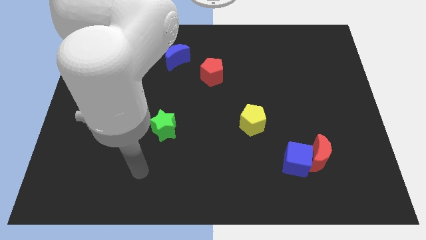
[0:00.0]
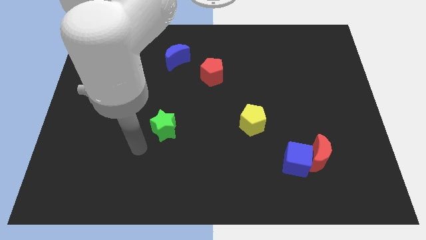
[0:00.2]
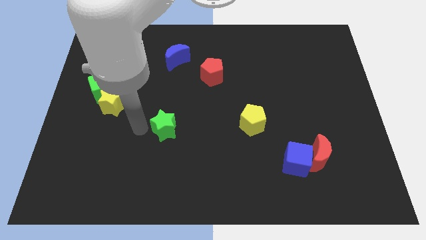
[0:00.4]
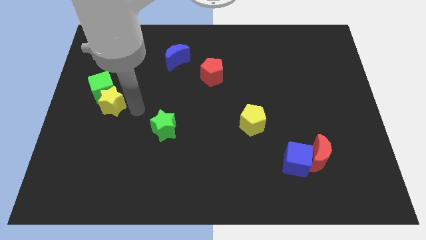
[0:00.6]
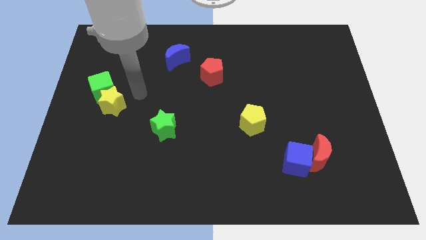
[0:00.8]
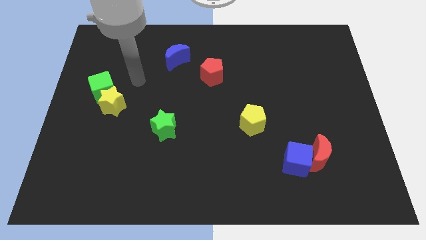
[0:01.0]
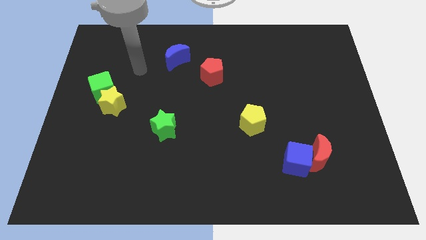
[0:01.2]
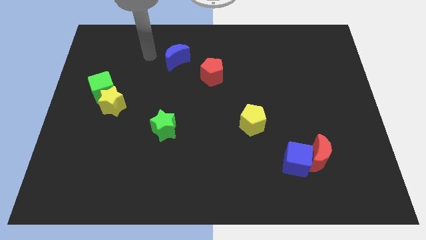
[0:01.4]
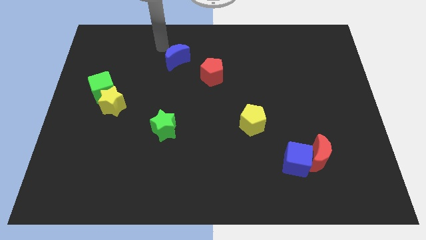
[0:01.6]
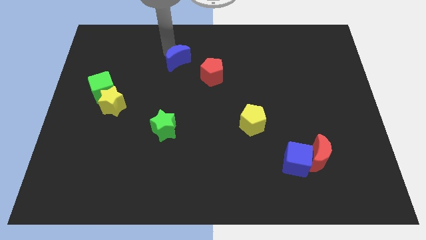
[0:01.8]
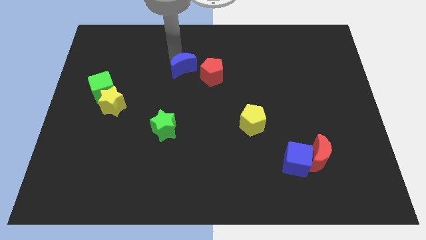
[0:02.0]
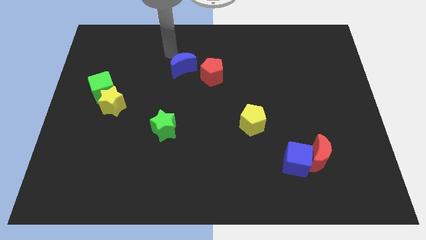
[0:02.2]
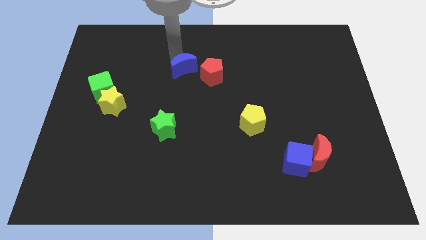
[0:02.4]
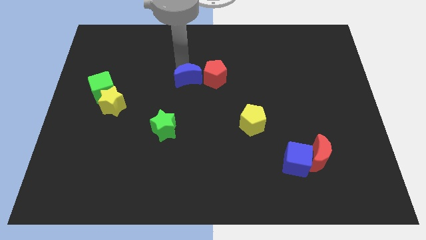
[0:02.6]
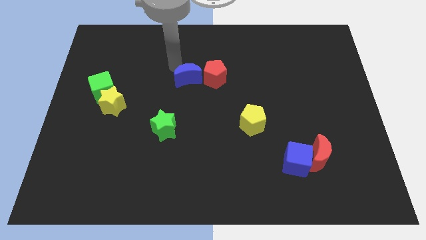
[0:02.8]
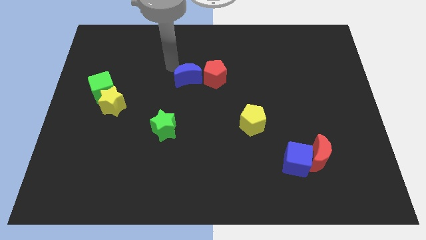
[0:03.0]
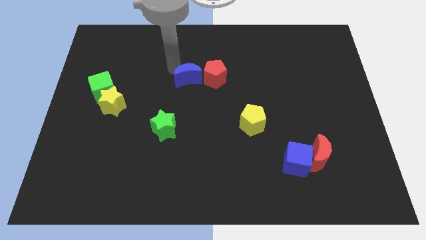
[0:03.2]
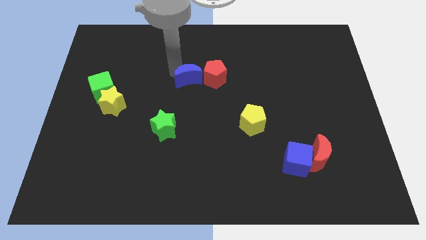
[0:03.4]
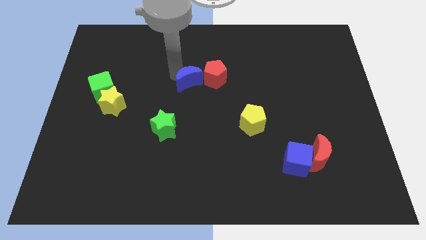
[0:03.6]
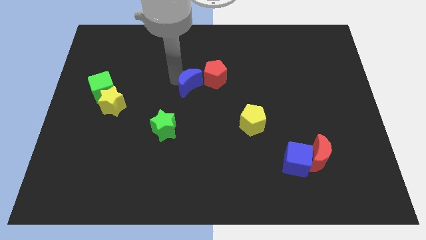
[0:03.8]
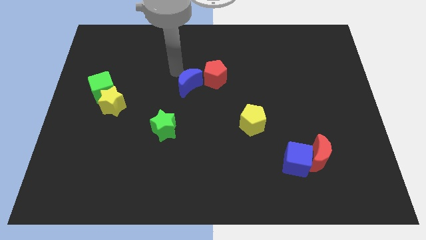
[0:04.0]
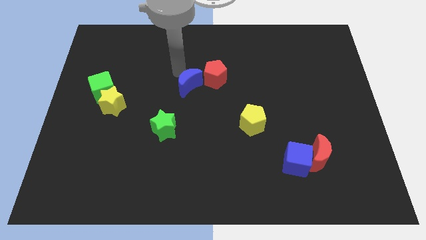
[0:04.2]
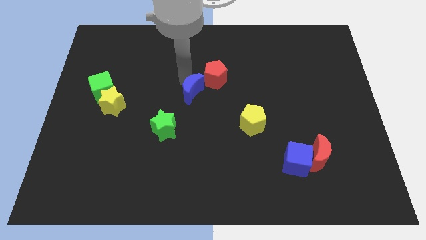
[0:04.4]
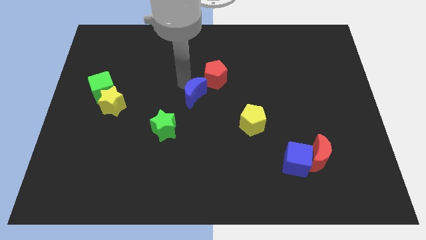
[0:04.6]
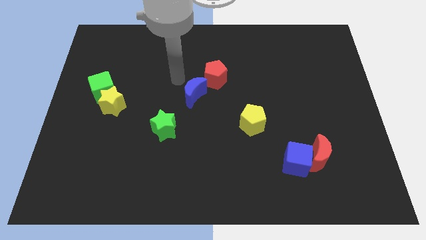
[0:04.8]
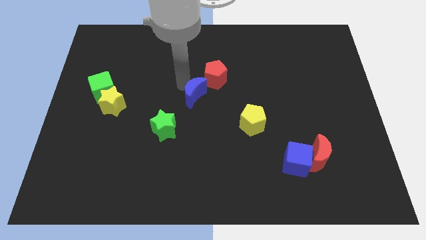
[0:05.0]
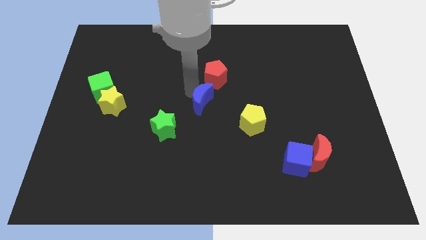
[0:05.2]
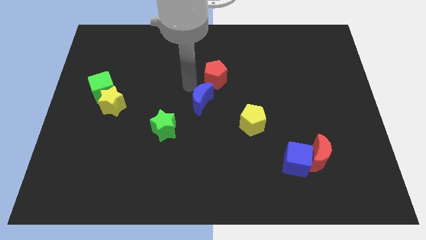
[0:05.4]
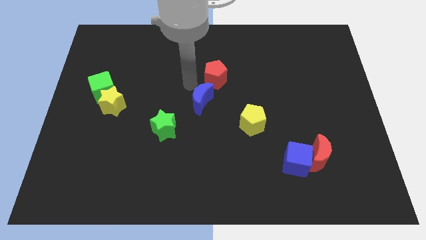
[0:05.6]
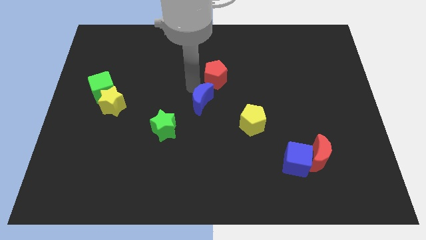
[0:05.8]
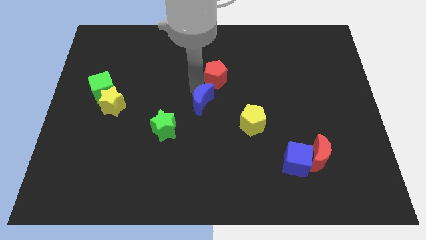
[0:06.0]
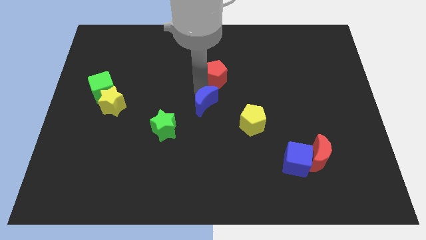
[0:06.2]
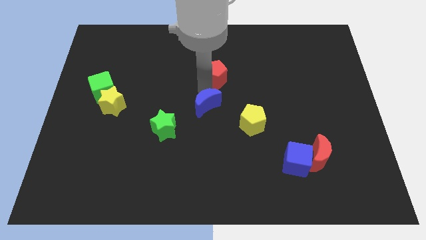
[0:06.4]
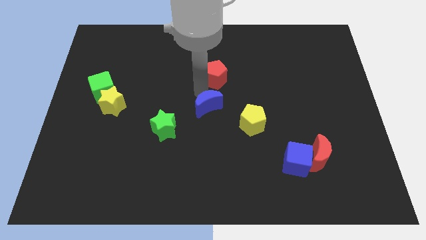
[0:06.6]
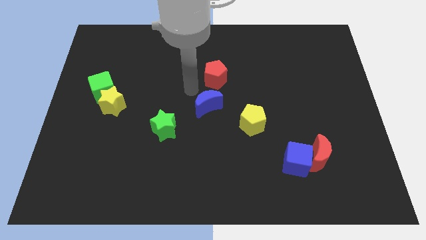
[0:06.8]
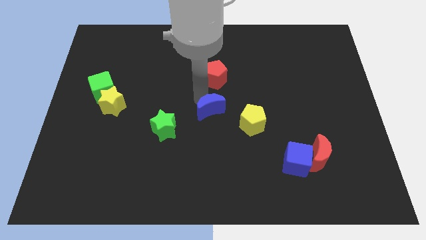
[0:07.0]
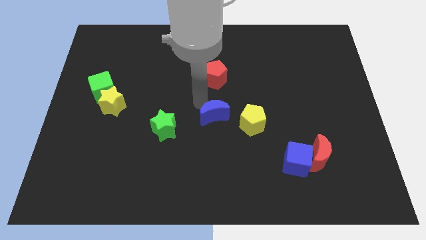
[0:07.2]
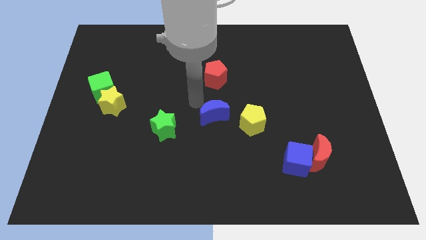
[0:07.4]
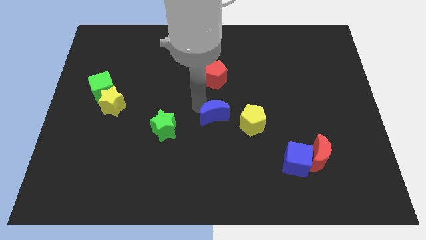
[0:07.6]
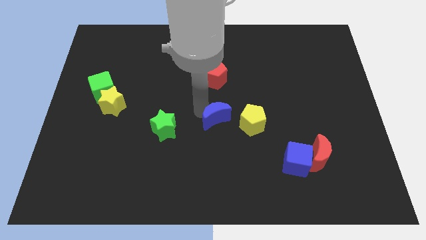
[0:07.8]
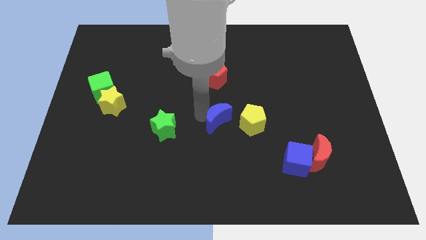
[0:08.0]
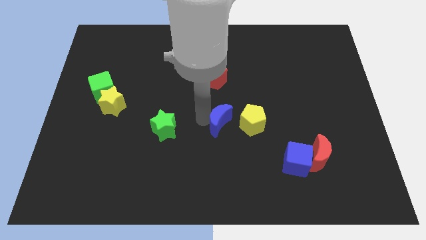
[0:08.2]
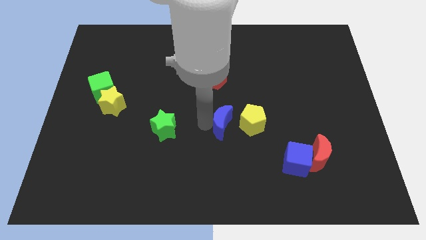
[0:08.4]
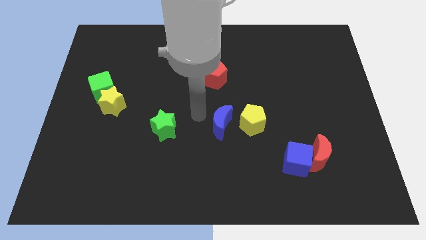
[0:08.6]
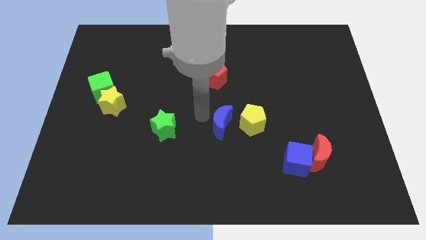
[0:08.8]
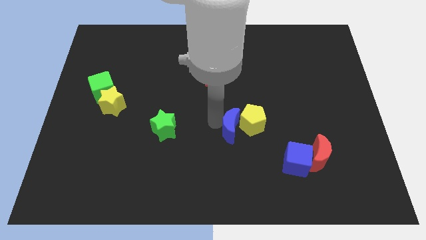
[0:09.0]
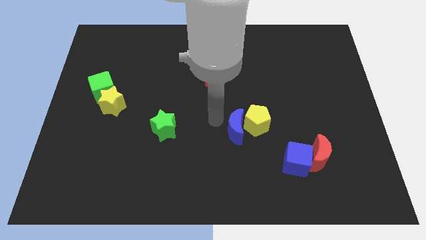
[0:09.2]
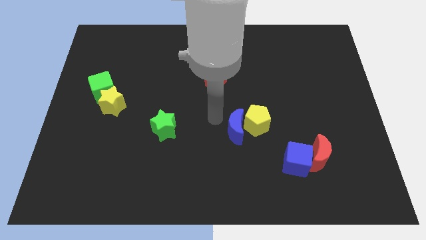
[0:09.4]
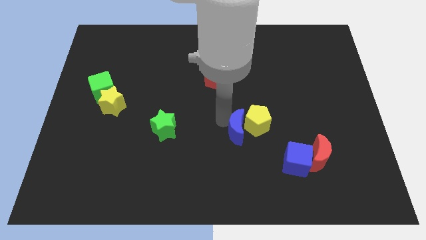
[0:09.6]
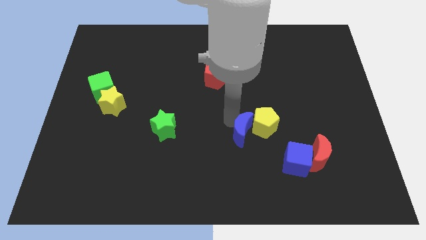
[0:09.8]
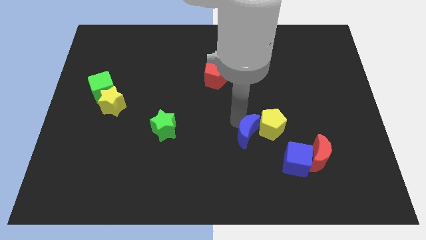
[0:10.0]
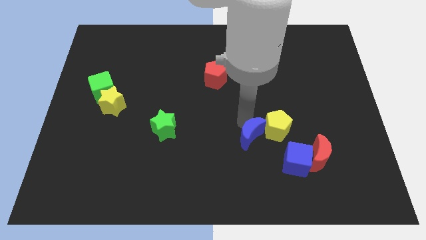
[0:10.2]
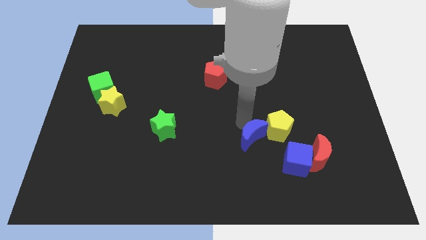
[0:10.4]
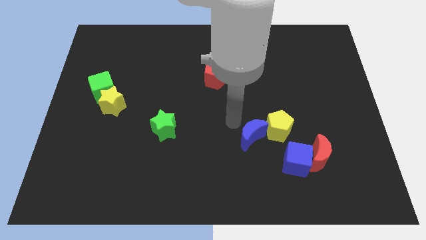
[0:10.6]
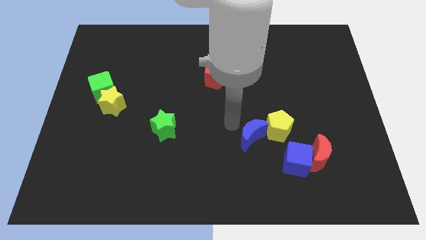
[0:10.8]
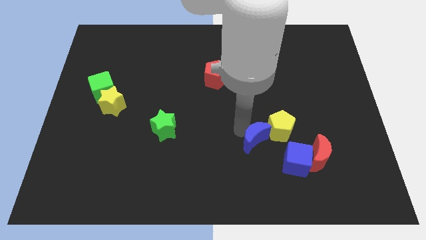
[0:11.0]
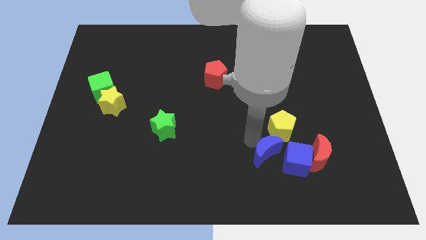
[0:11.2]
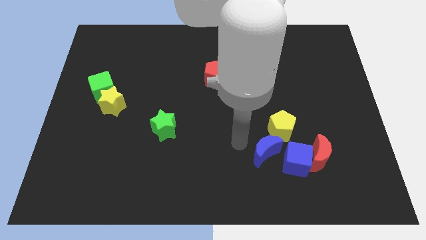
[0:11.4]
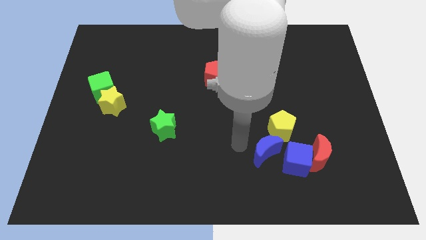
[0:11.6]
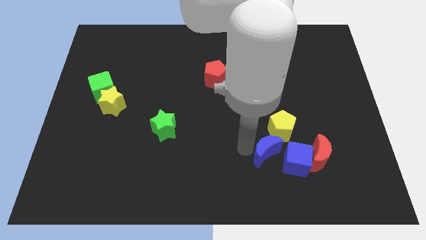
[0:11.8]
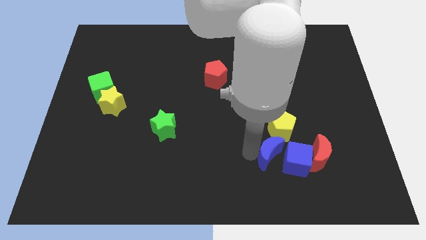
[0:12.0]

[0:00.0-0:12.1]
move the blue moon towards the blue cube

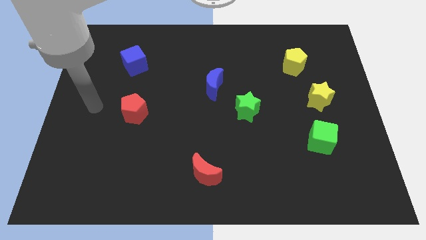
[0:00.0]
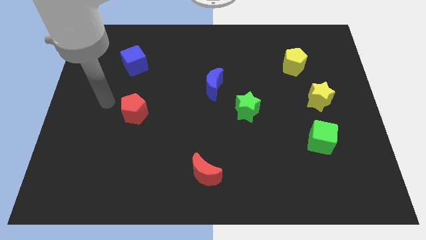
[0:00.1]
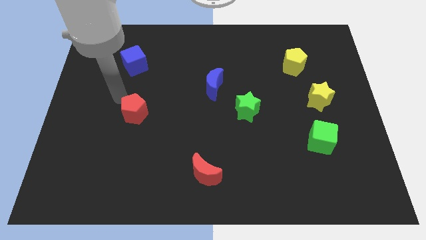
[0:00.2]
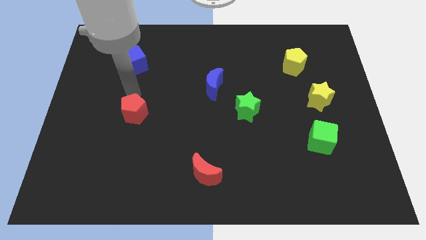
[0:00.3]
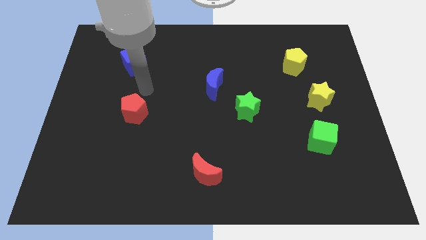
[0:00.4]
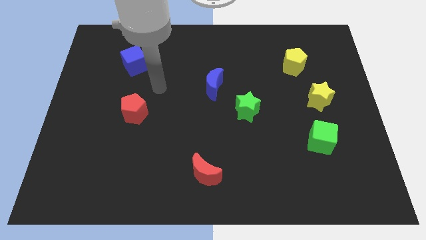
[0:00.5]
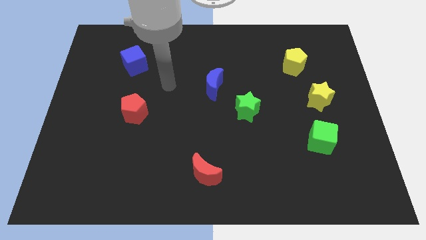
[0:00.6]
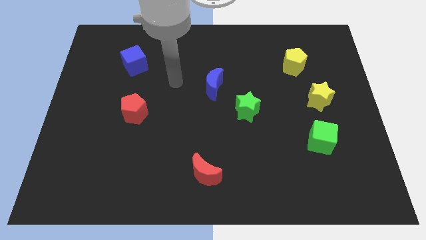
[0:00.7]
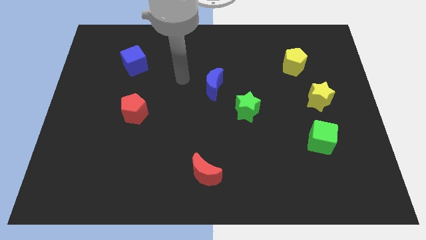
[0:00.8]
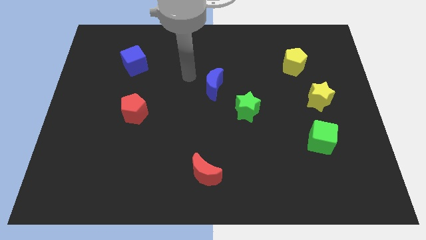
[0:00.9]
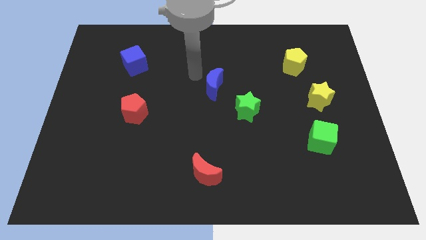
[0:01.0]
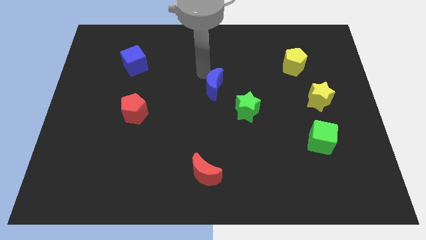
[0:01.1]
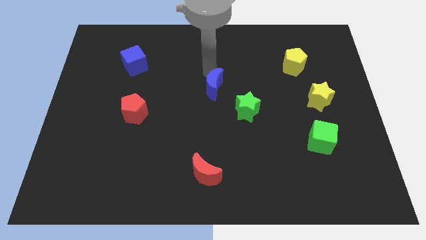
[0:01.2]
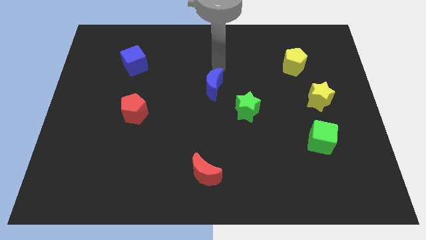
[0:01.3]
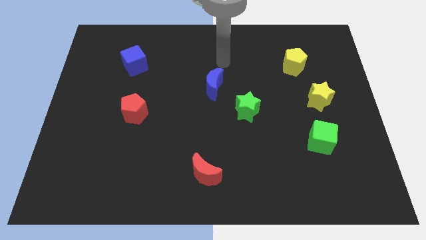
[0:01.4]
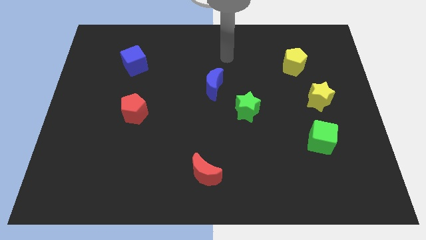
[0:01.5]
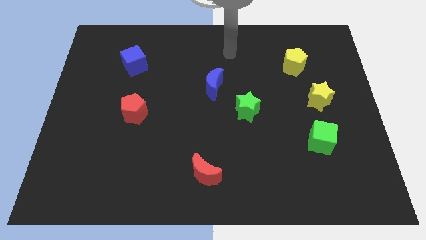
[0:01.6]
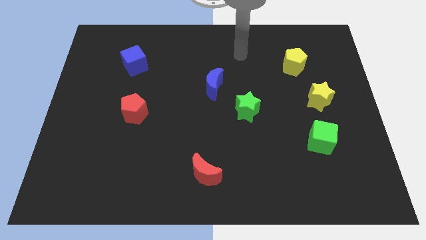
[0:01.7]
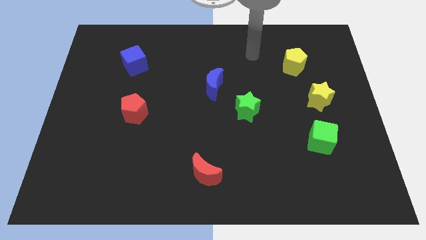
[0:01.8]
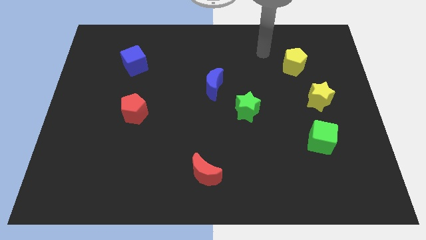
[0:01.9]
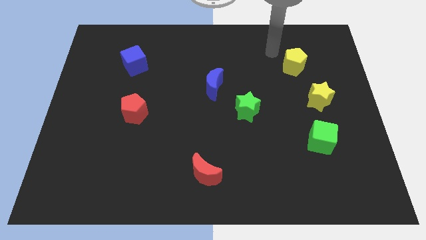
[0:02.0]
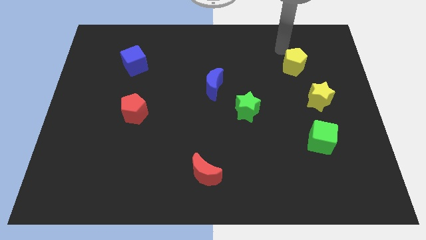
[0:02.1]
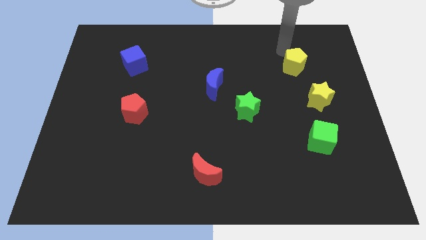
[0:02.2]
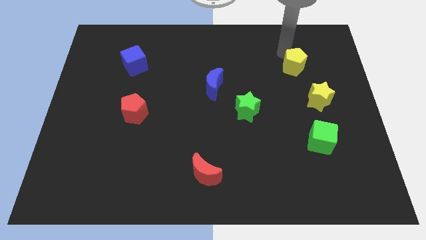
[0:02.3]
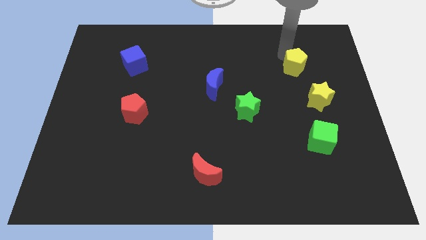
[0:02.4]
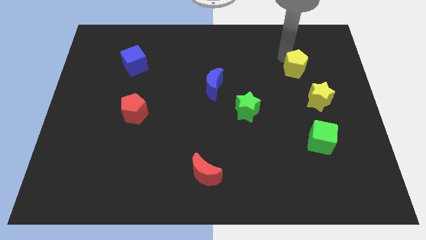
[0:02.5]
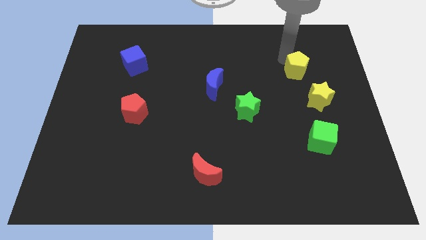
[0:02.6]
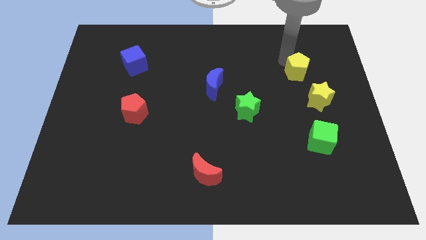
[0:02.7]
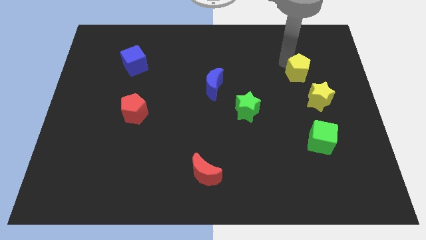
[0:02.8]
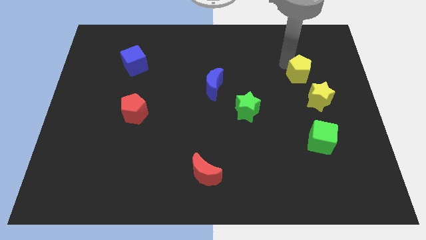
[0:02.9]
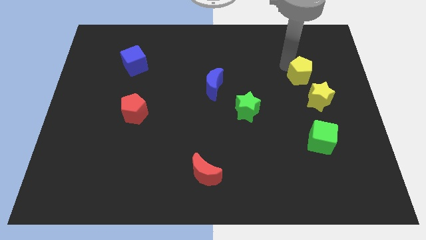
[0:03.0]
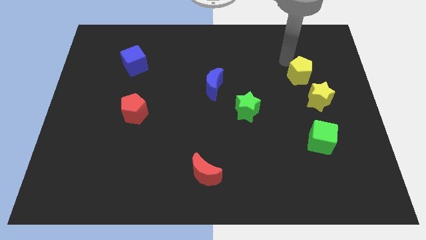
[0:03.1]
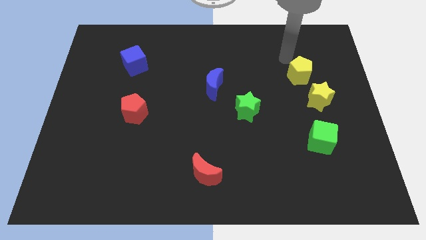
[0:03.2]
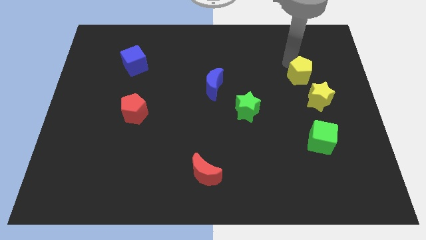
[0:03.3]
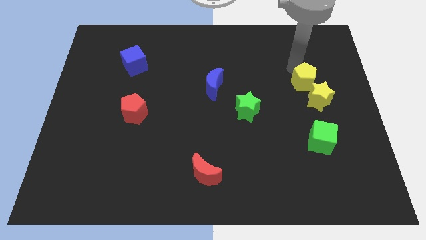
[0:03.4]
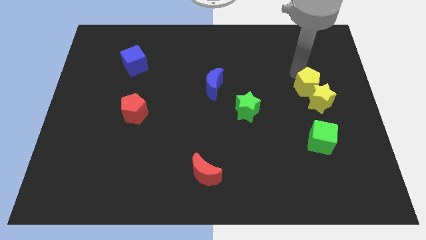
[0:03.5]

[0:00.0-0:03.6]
slide the yellow pentagon next to the yellow star
